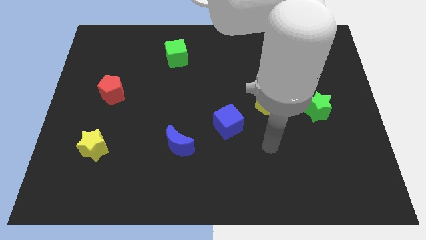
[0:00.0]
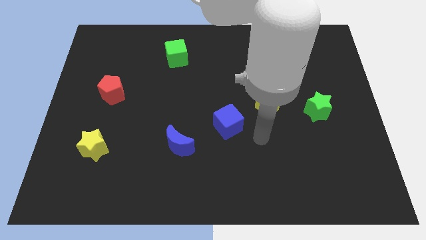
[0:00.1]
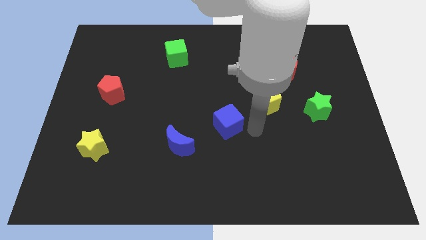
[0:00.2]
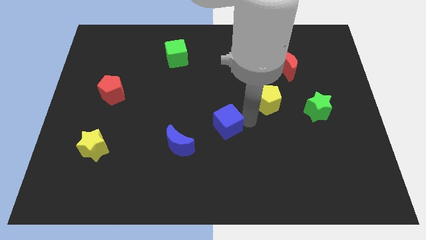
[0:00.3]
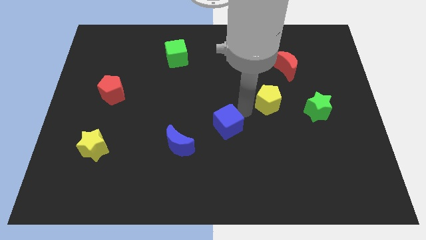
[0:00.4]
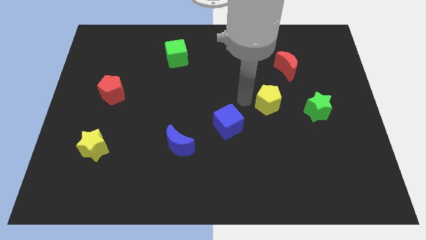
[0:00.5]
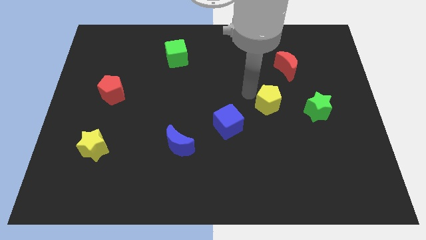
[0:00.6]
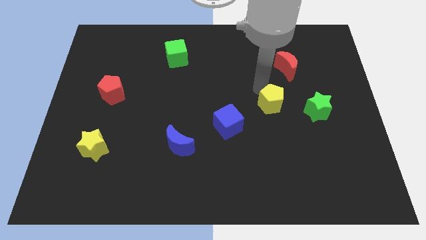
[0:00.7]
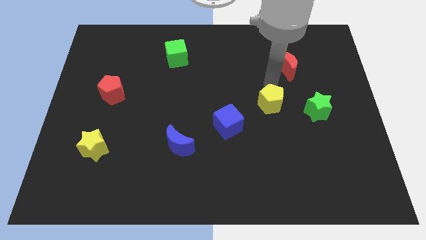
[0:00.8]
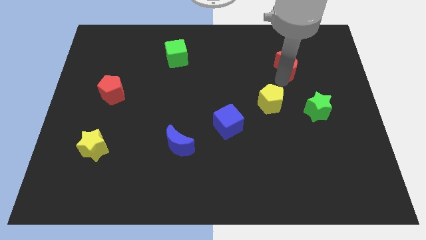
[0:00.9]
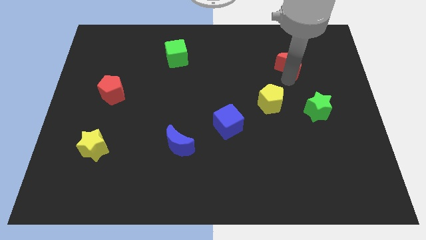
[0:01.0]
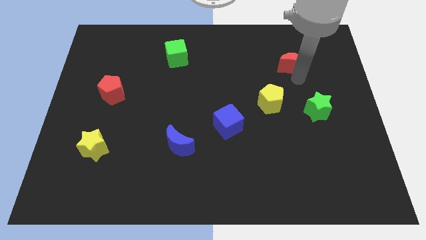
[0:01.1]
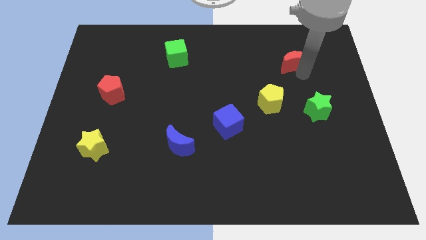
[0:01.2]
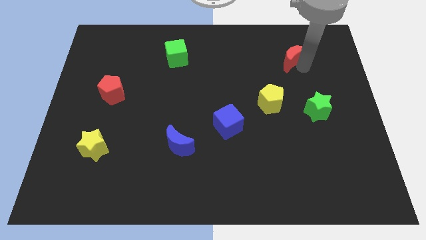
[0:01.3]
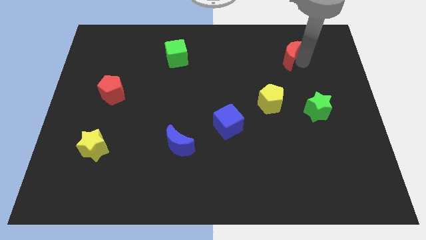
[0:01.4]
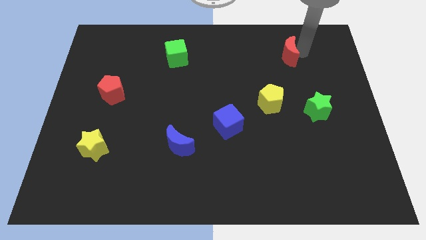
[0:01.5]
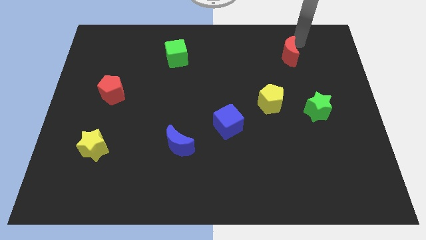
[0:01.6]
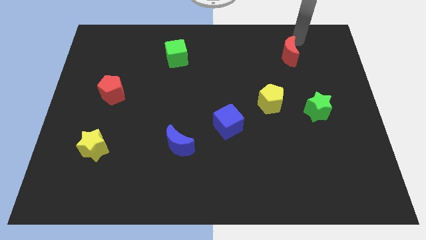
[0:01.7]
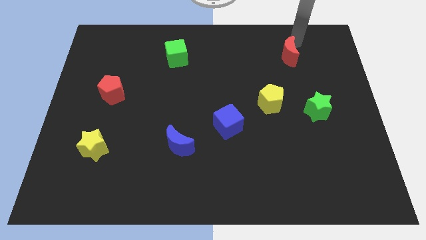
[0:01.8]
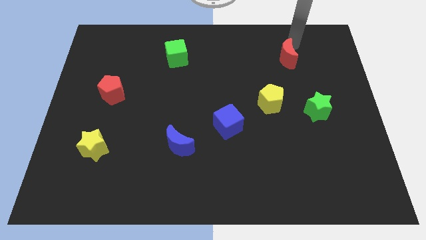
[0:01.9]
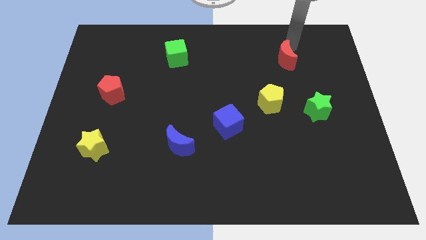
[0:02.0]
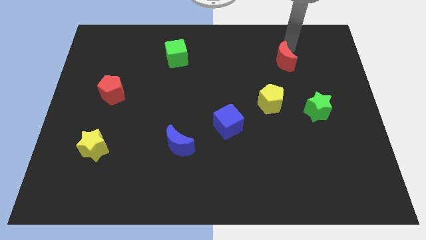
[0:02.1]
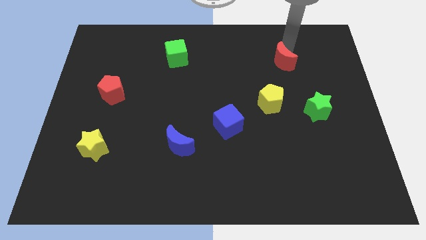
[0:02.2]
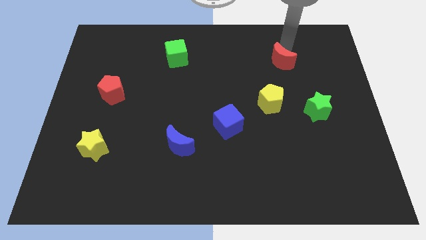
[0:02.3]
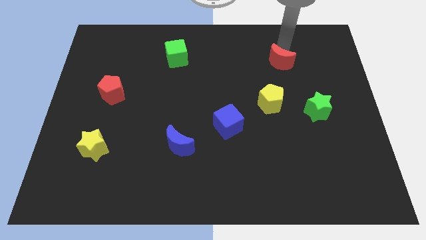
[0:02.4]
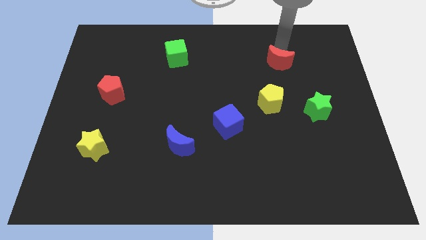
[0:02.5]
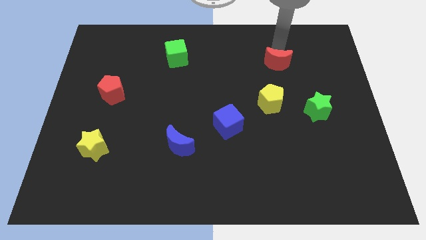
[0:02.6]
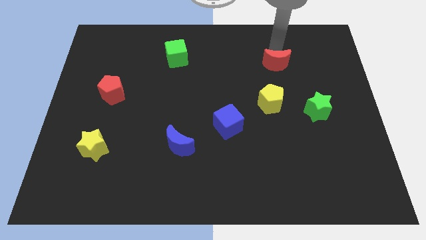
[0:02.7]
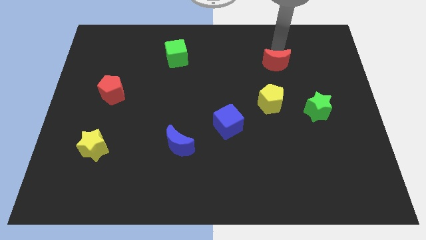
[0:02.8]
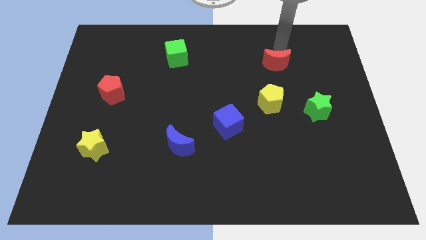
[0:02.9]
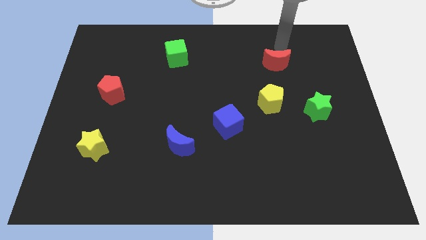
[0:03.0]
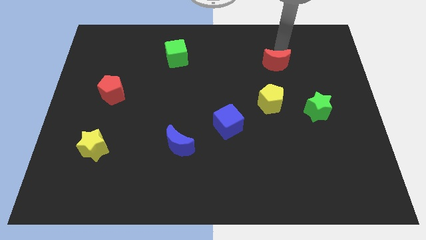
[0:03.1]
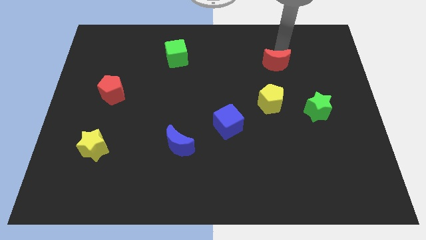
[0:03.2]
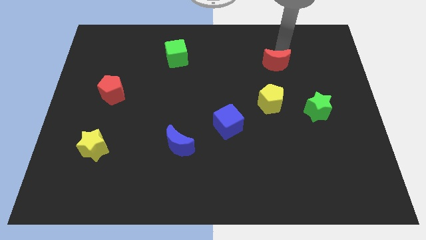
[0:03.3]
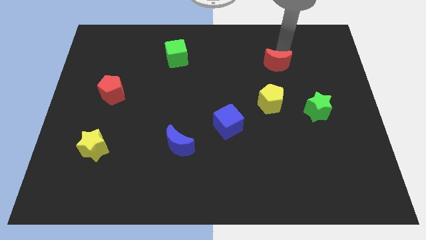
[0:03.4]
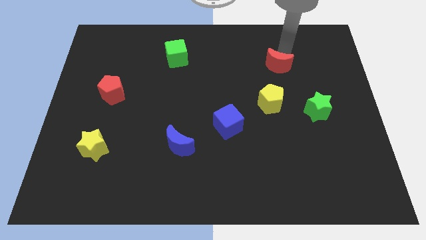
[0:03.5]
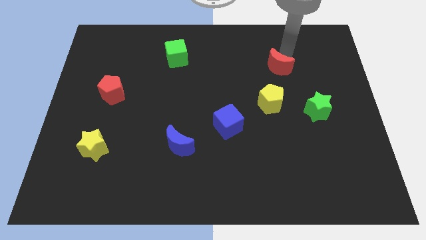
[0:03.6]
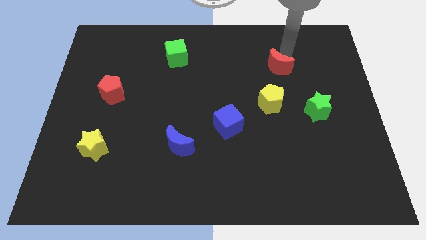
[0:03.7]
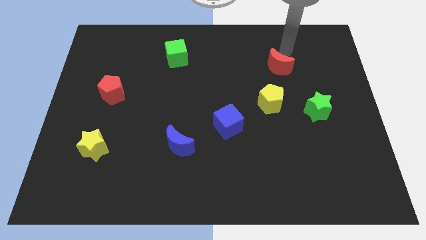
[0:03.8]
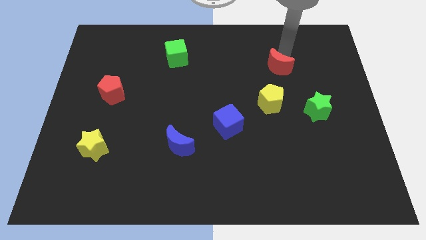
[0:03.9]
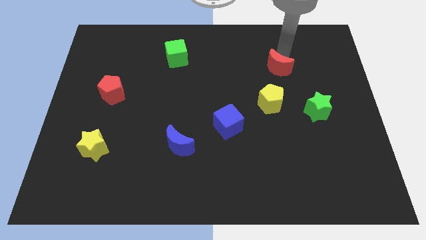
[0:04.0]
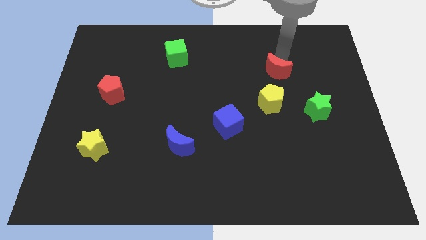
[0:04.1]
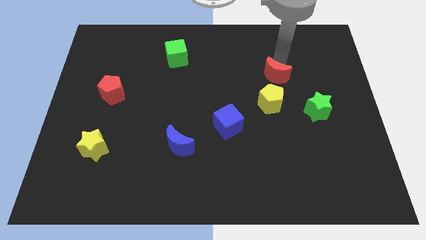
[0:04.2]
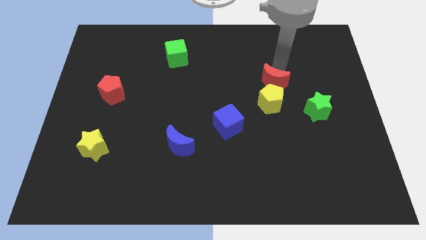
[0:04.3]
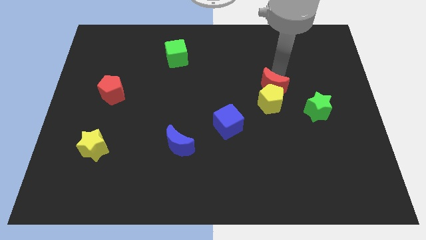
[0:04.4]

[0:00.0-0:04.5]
move the red moon a little bit down and then to the left

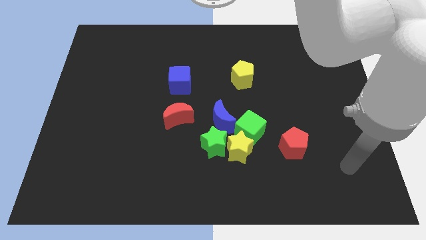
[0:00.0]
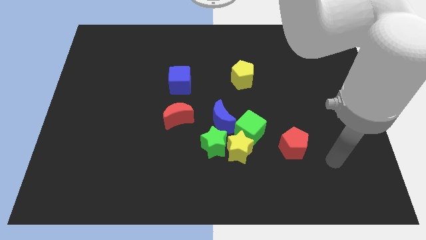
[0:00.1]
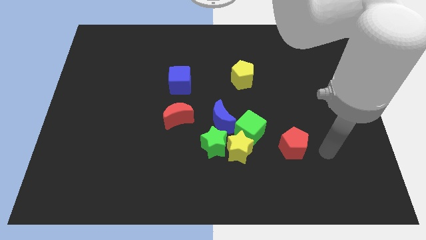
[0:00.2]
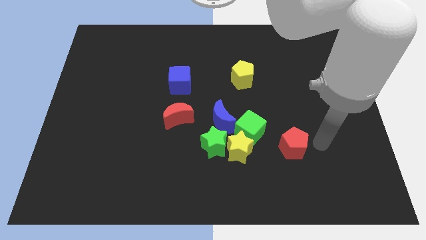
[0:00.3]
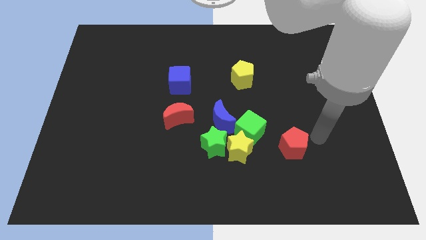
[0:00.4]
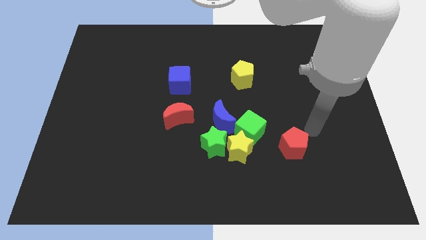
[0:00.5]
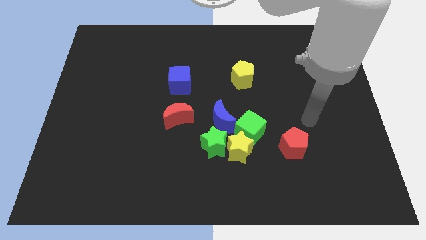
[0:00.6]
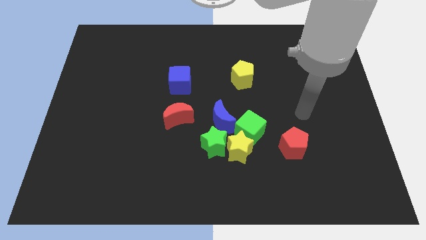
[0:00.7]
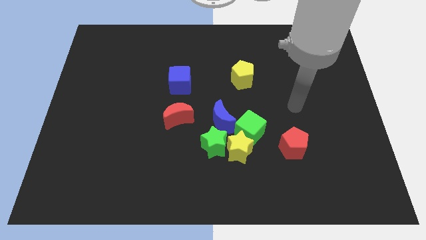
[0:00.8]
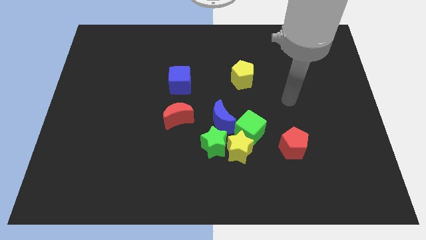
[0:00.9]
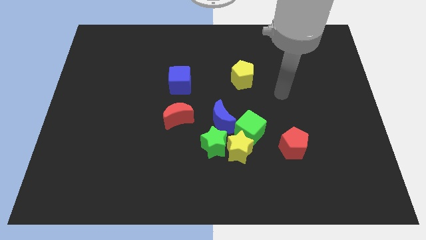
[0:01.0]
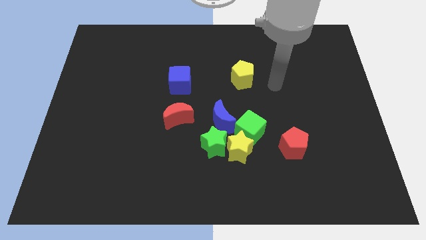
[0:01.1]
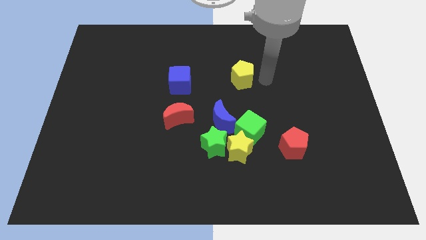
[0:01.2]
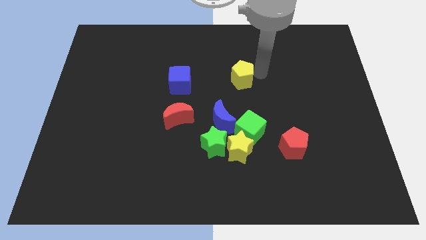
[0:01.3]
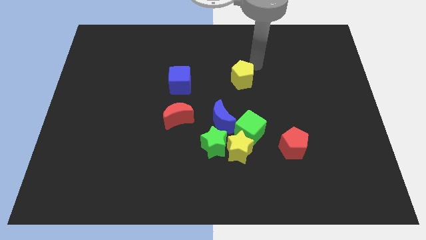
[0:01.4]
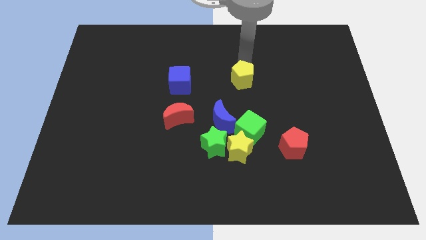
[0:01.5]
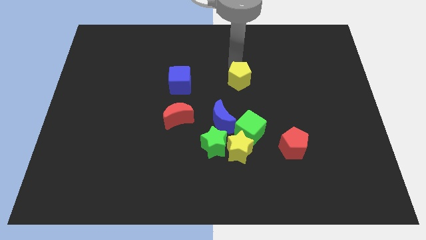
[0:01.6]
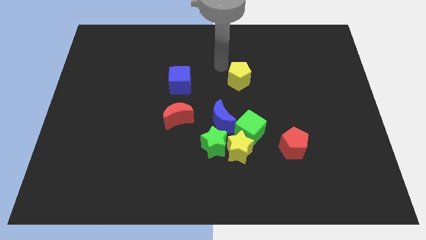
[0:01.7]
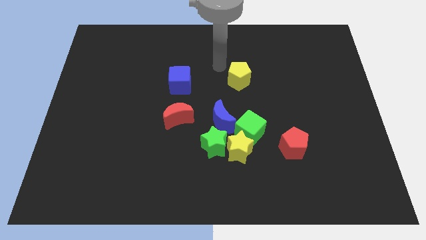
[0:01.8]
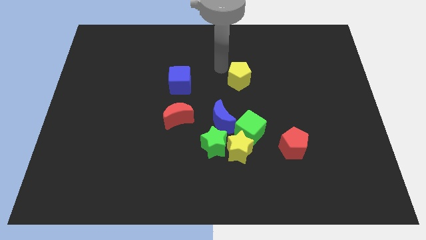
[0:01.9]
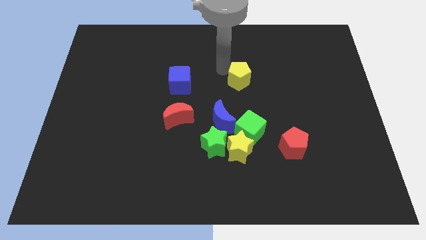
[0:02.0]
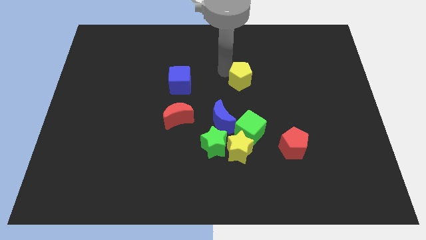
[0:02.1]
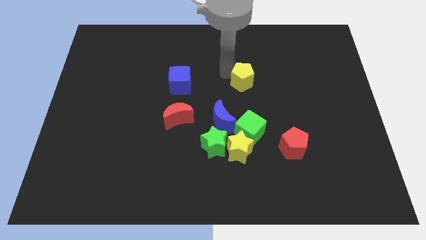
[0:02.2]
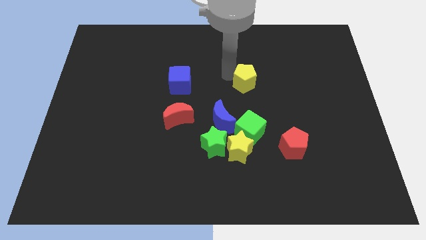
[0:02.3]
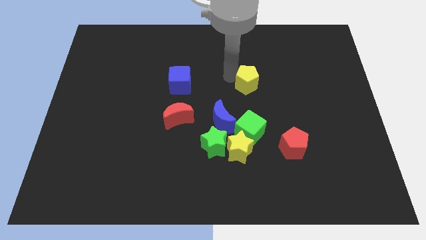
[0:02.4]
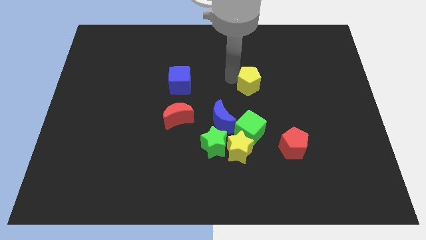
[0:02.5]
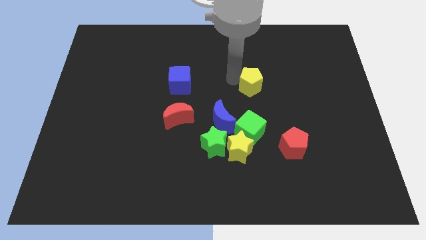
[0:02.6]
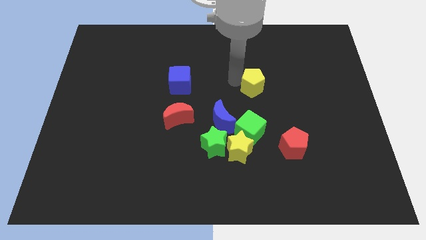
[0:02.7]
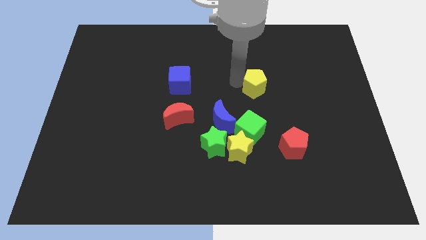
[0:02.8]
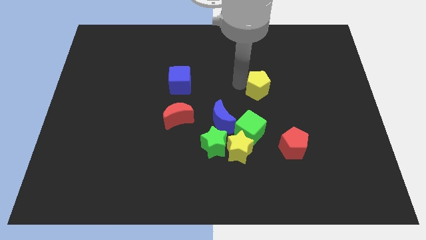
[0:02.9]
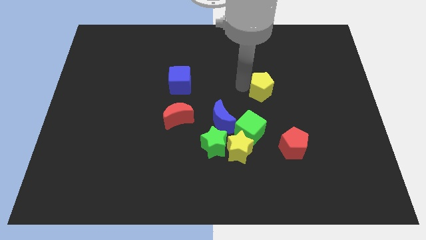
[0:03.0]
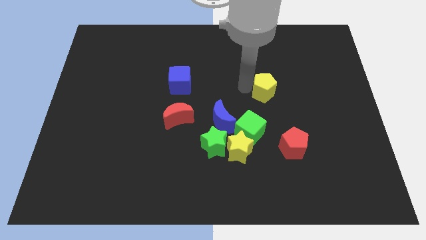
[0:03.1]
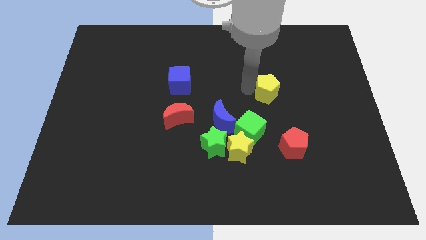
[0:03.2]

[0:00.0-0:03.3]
push the yellow pentagon somewhat down and right

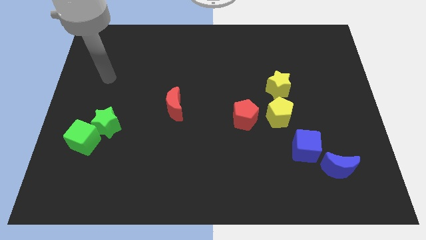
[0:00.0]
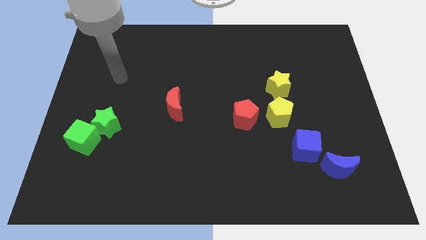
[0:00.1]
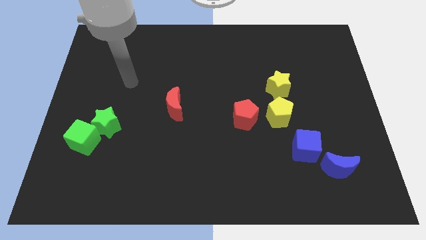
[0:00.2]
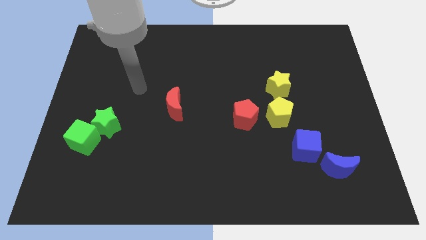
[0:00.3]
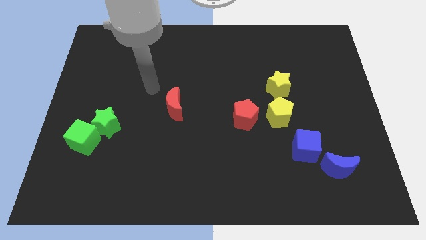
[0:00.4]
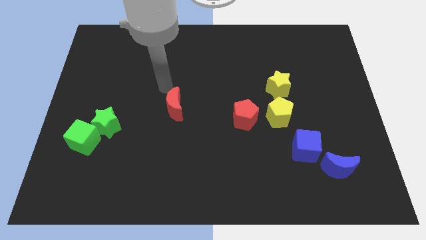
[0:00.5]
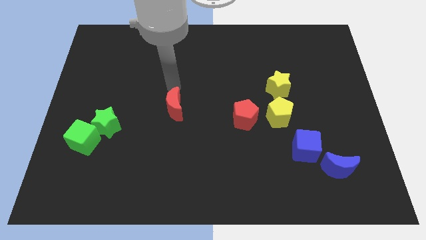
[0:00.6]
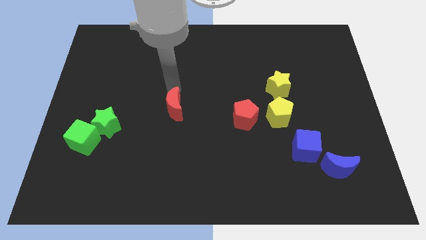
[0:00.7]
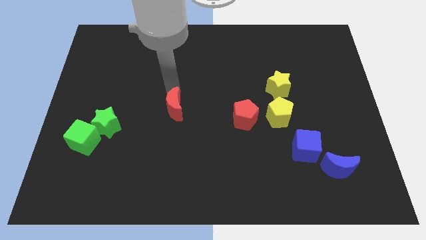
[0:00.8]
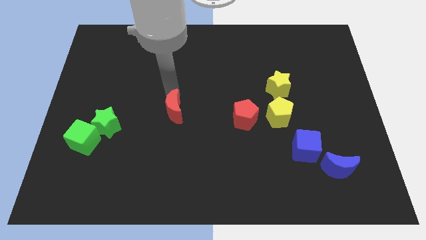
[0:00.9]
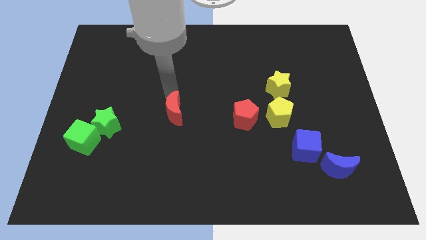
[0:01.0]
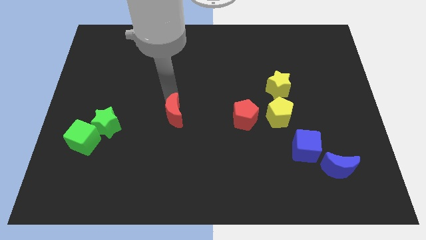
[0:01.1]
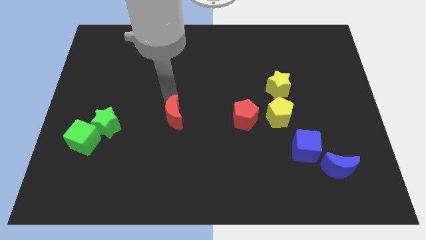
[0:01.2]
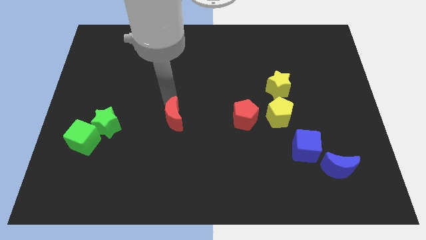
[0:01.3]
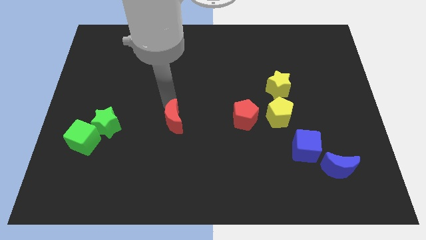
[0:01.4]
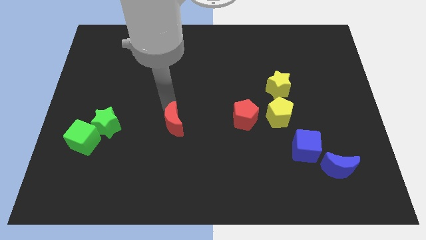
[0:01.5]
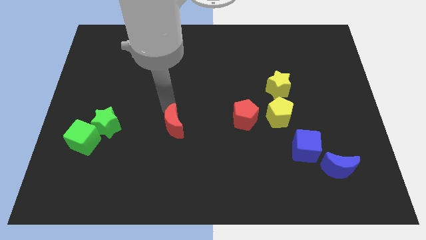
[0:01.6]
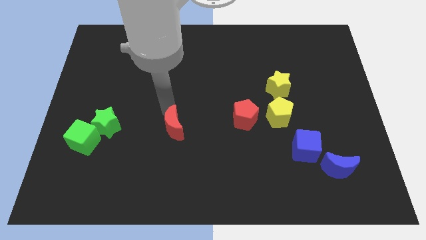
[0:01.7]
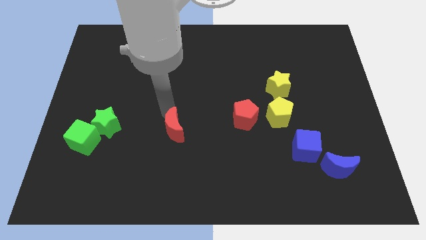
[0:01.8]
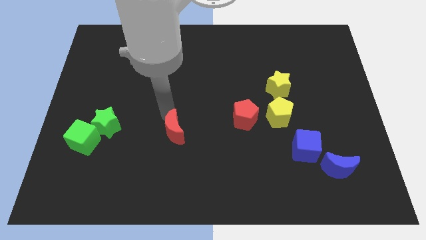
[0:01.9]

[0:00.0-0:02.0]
move the red moon a little bit downwards
